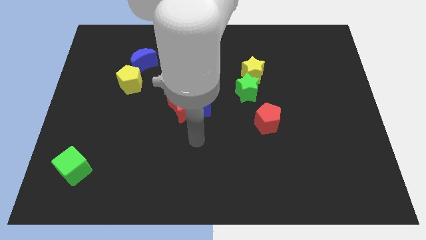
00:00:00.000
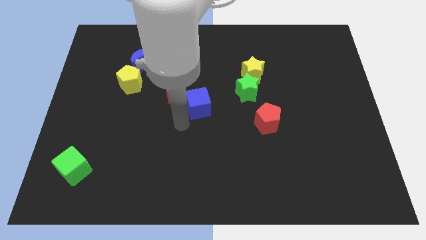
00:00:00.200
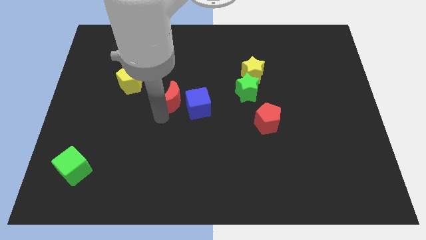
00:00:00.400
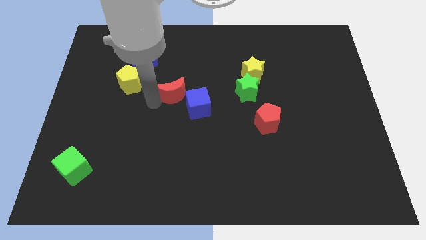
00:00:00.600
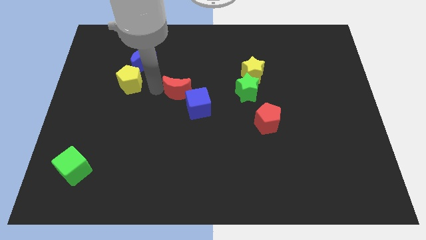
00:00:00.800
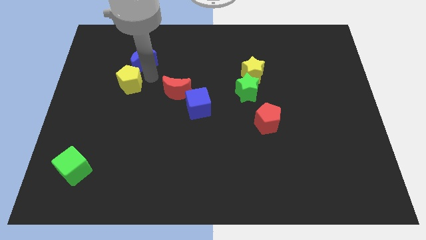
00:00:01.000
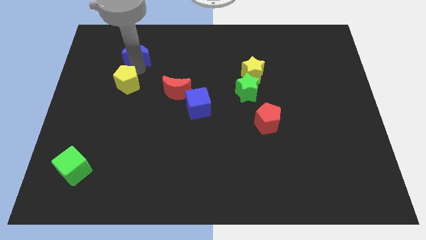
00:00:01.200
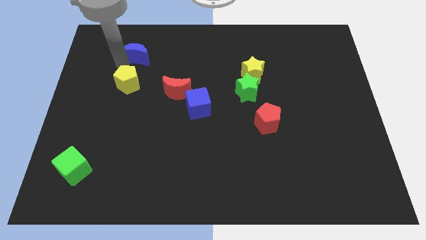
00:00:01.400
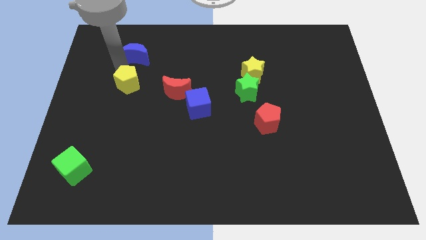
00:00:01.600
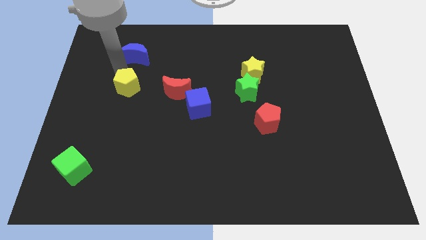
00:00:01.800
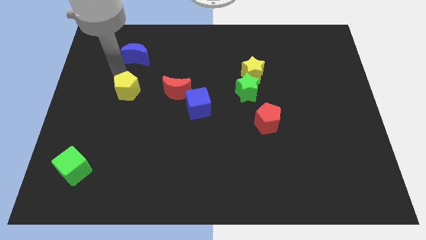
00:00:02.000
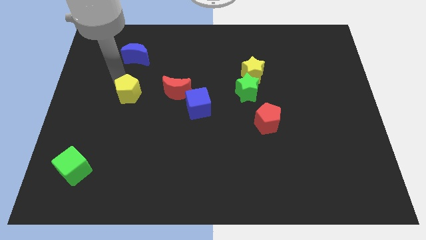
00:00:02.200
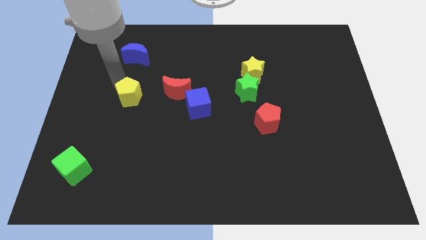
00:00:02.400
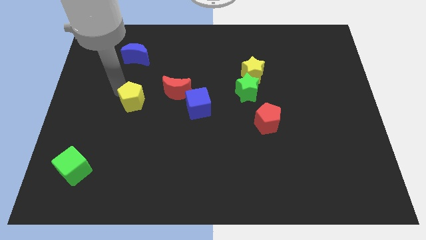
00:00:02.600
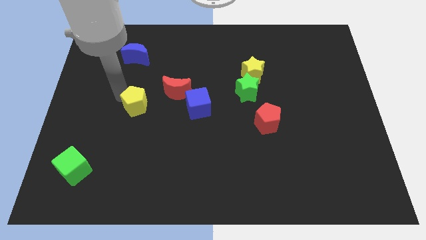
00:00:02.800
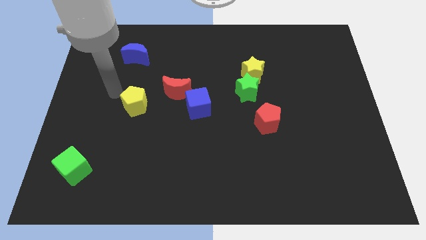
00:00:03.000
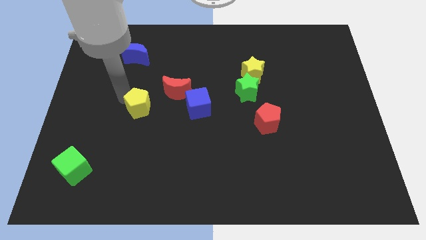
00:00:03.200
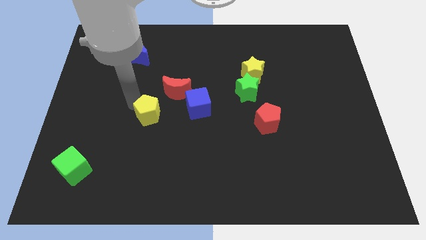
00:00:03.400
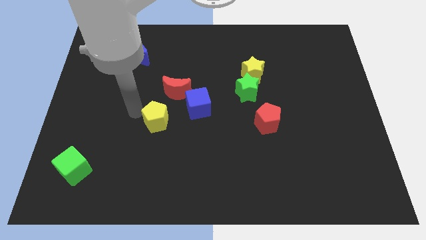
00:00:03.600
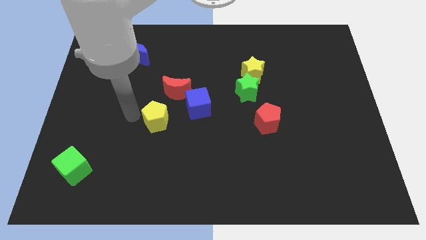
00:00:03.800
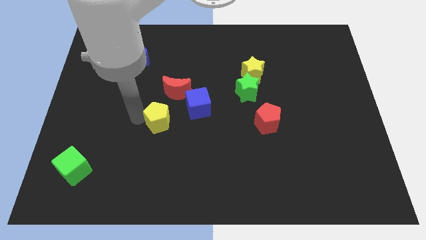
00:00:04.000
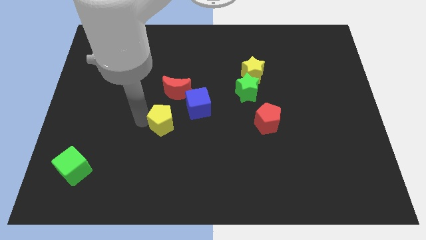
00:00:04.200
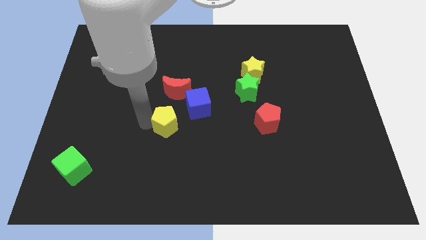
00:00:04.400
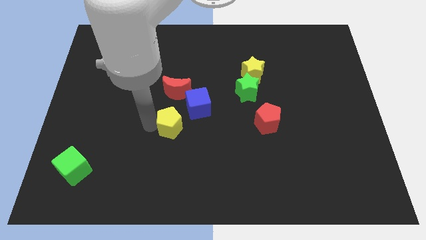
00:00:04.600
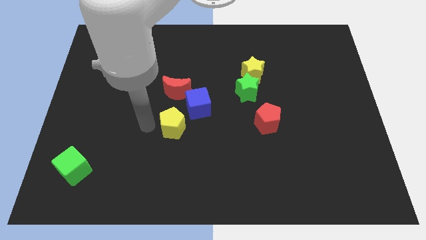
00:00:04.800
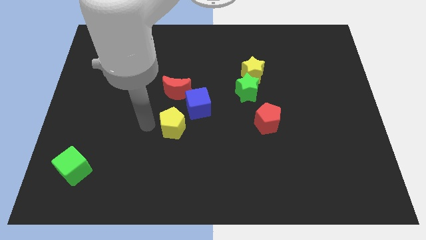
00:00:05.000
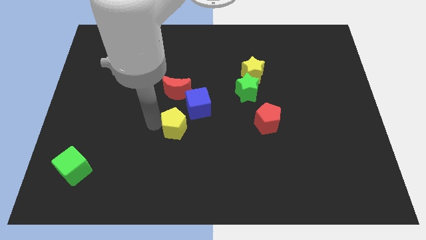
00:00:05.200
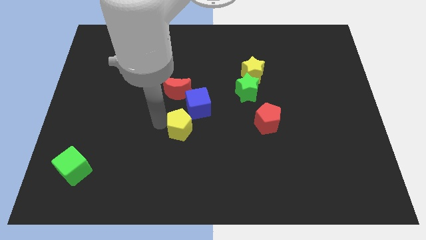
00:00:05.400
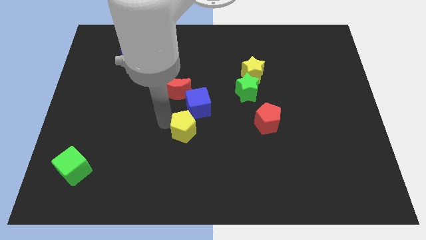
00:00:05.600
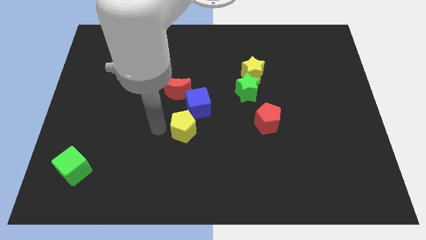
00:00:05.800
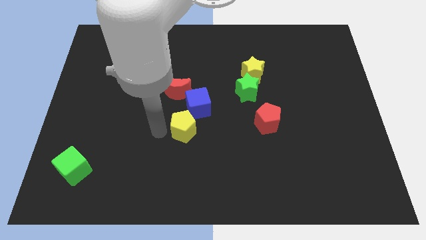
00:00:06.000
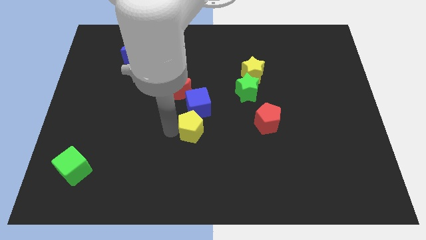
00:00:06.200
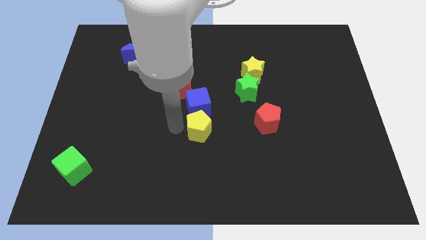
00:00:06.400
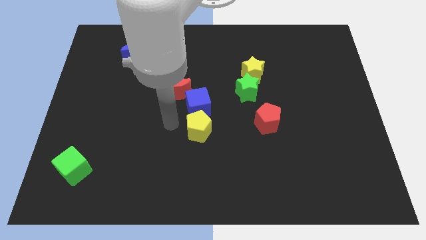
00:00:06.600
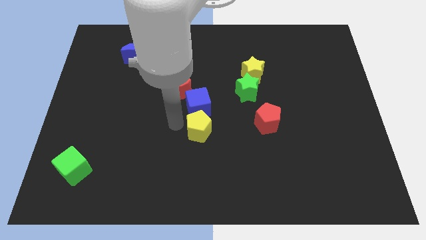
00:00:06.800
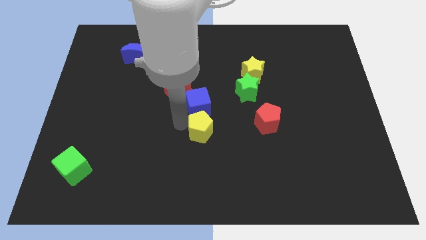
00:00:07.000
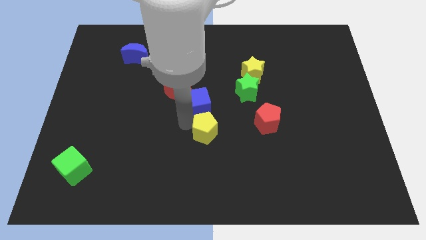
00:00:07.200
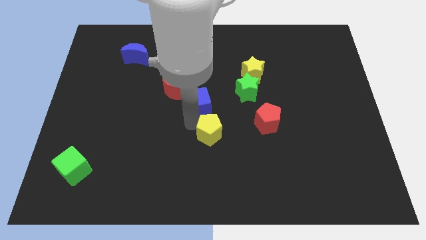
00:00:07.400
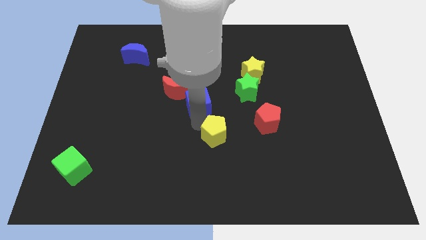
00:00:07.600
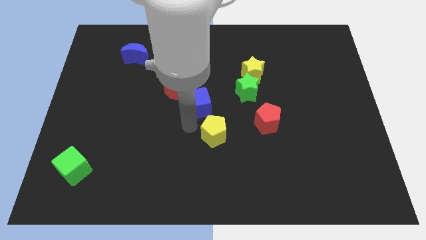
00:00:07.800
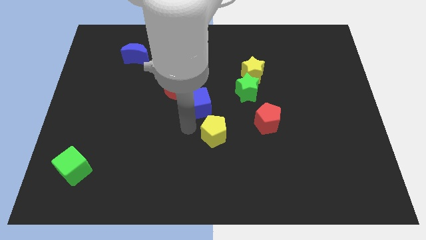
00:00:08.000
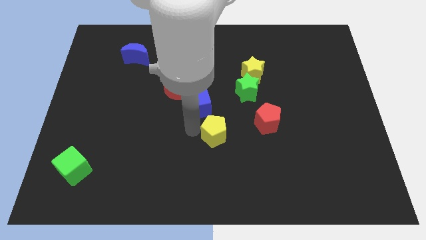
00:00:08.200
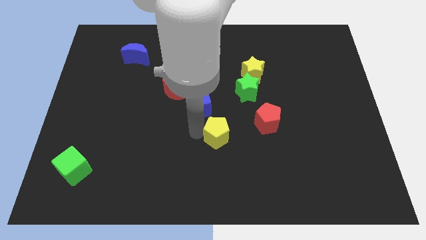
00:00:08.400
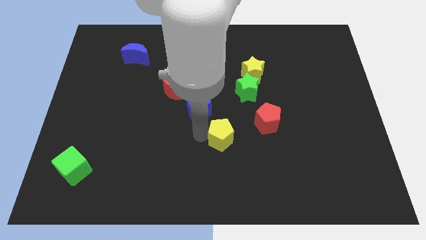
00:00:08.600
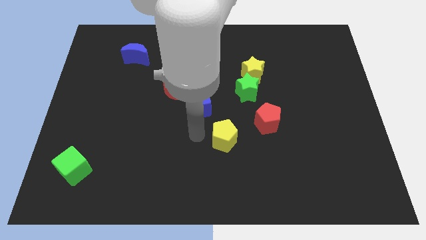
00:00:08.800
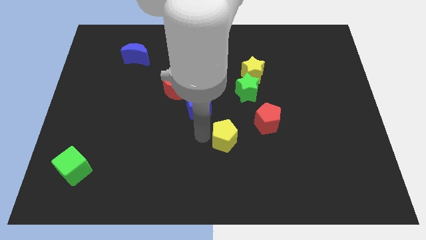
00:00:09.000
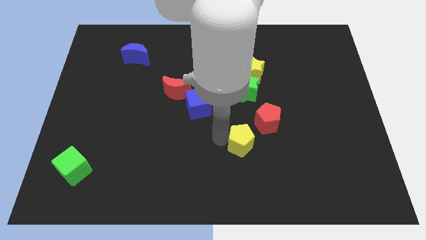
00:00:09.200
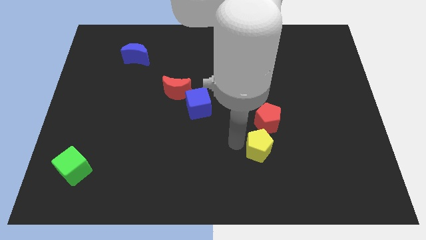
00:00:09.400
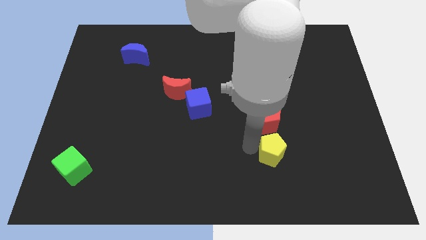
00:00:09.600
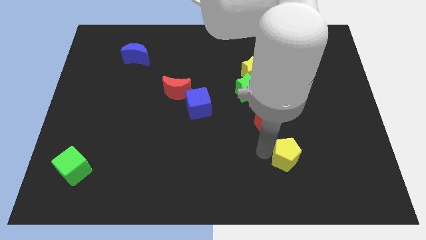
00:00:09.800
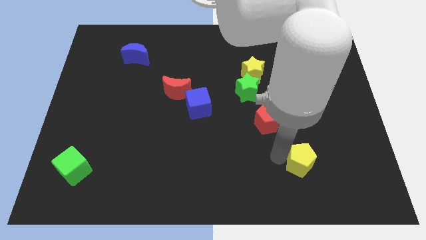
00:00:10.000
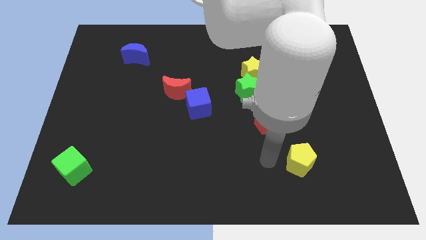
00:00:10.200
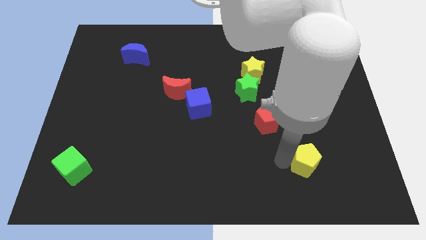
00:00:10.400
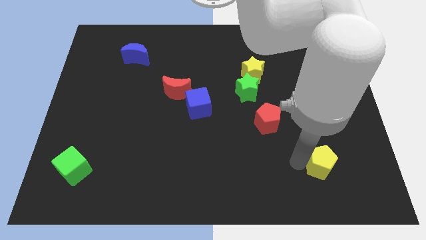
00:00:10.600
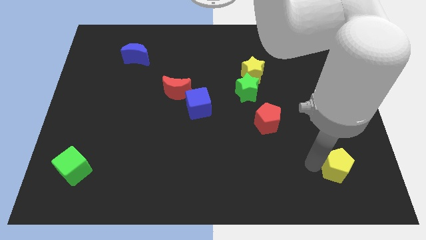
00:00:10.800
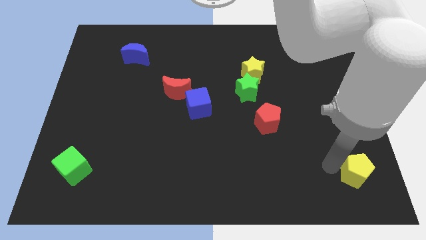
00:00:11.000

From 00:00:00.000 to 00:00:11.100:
put the yellow pentagon to the lower right corner

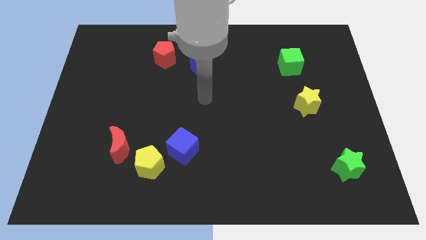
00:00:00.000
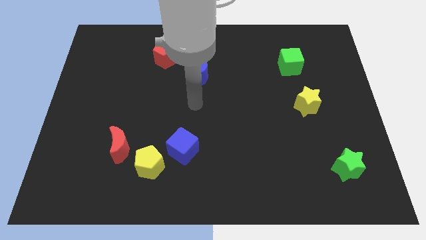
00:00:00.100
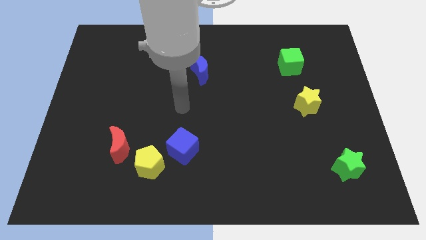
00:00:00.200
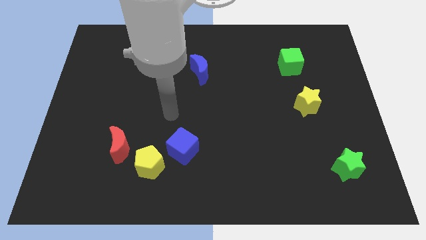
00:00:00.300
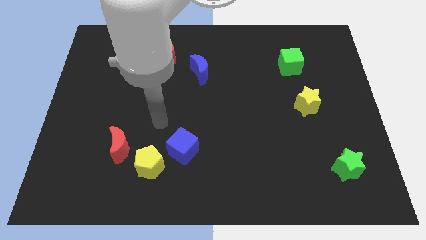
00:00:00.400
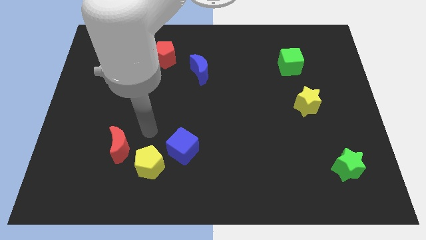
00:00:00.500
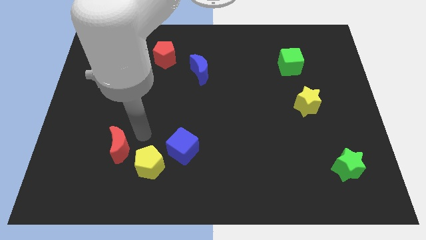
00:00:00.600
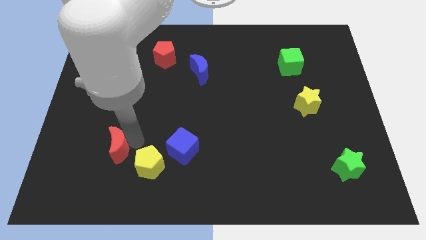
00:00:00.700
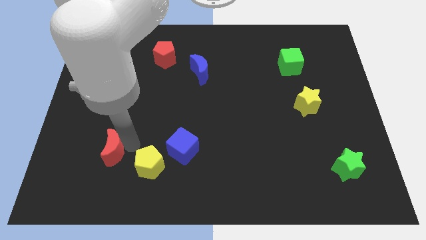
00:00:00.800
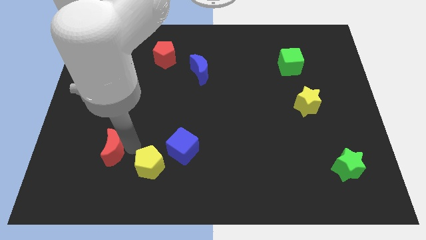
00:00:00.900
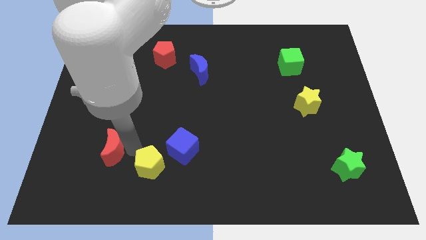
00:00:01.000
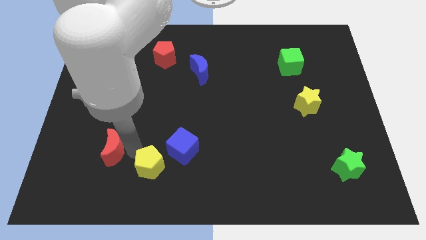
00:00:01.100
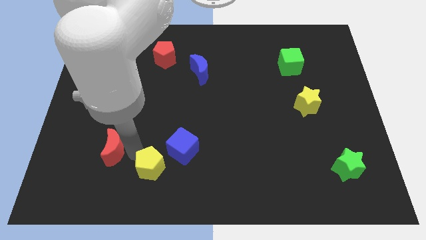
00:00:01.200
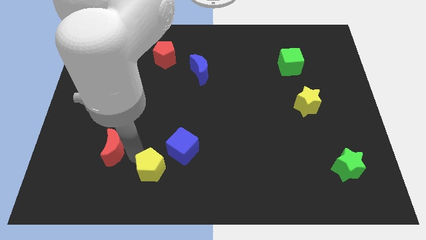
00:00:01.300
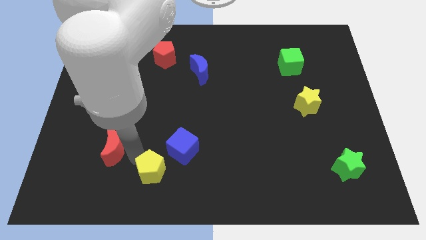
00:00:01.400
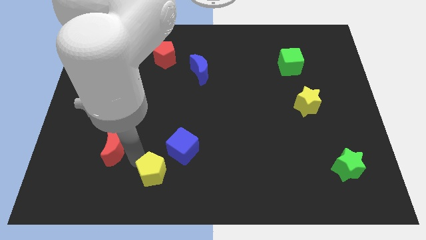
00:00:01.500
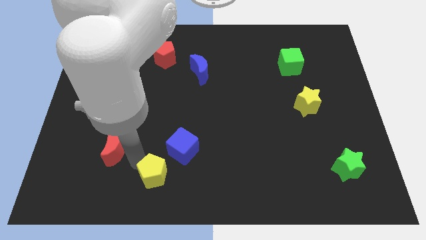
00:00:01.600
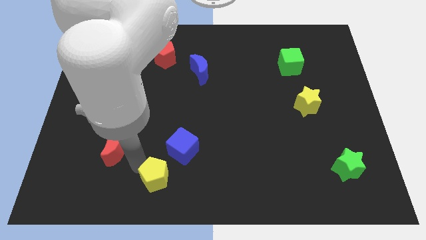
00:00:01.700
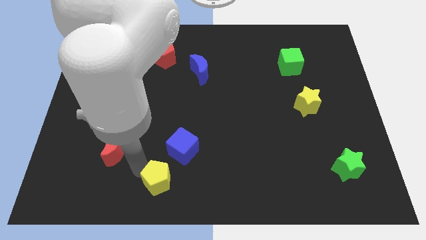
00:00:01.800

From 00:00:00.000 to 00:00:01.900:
put the yellow pentagon to the bottom side
